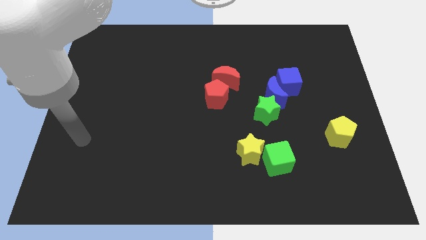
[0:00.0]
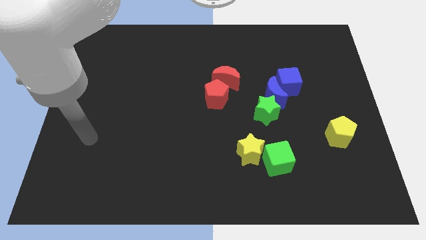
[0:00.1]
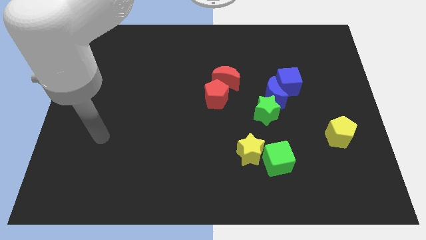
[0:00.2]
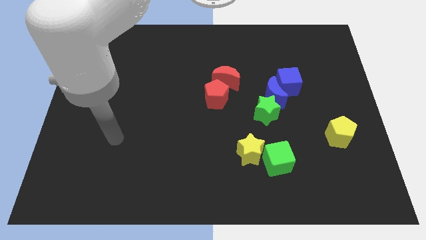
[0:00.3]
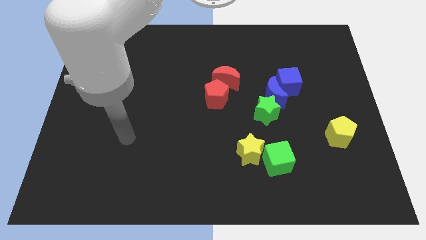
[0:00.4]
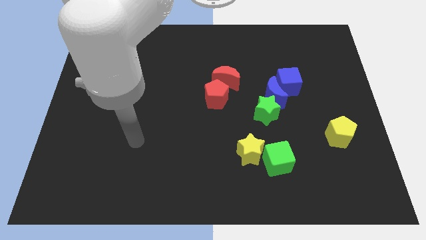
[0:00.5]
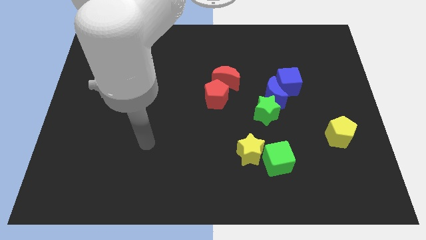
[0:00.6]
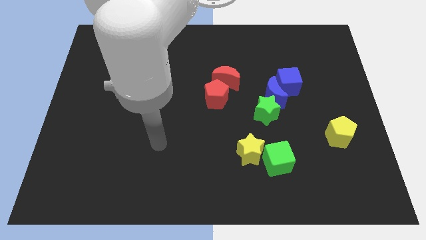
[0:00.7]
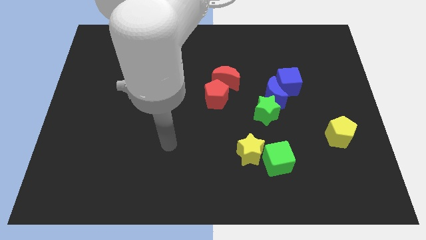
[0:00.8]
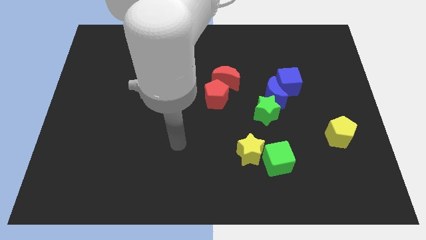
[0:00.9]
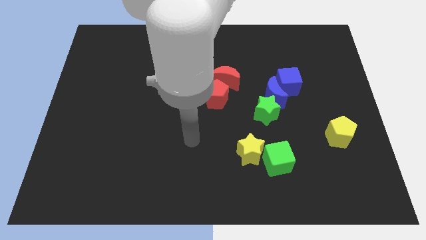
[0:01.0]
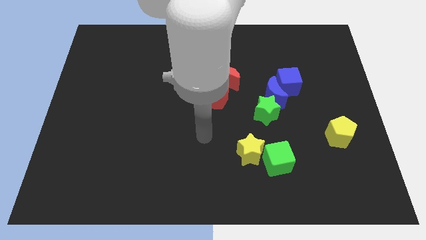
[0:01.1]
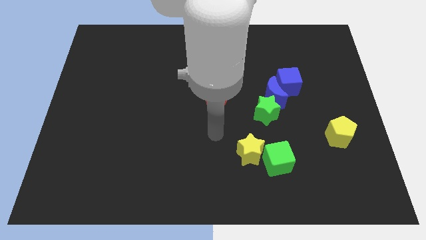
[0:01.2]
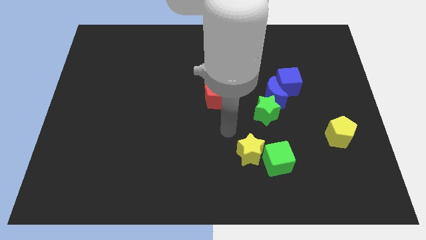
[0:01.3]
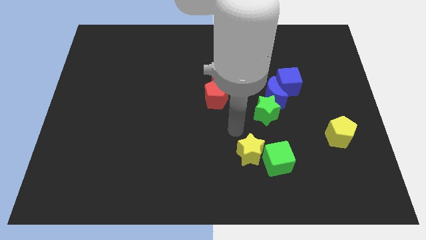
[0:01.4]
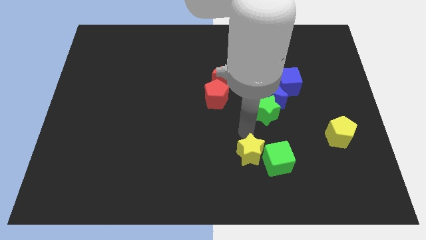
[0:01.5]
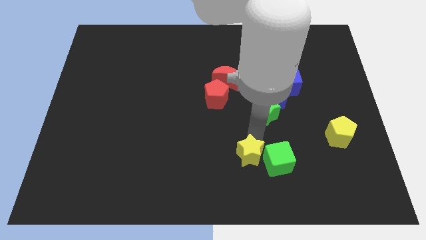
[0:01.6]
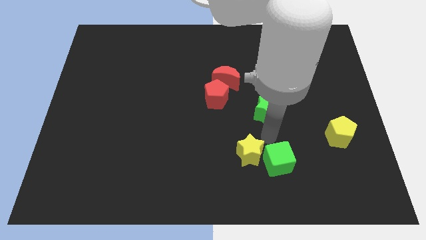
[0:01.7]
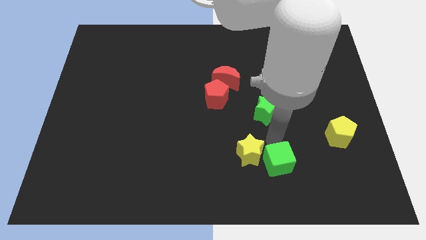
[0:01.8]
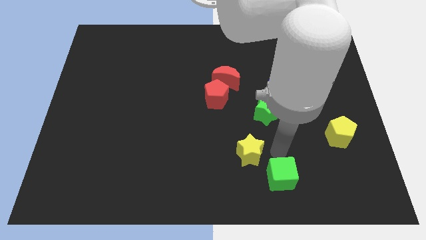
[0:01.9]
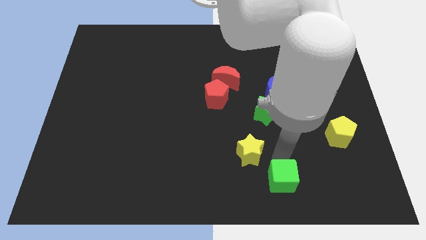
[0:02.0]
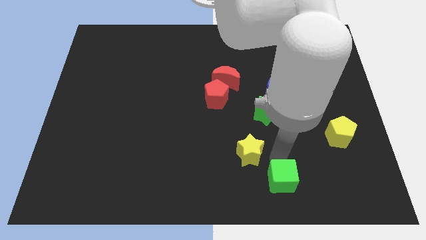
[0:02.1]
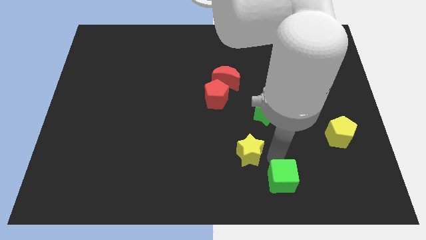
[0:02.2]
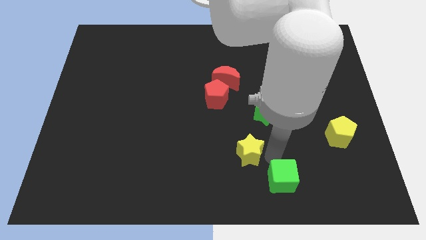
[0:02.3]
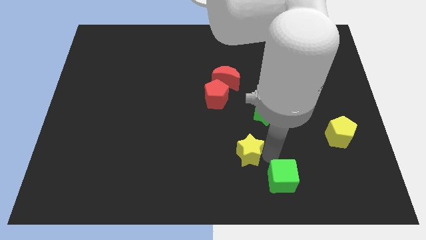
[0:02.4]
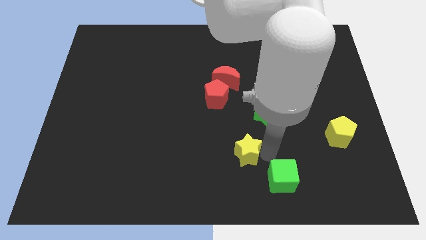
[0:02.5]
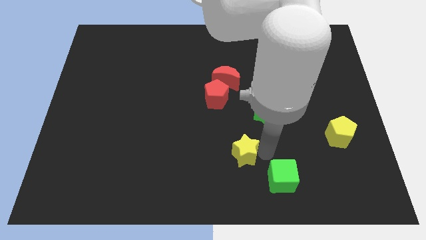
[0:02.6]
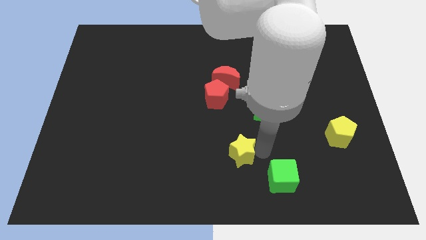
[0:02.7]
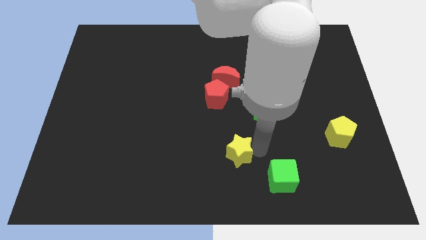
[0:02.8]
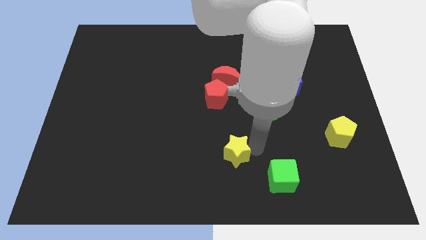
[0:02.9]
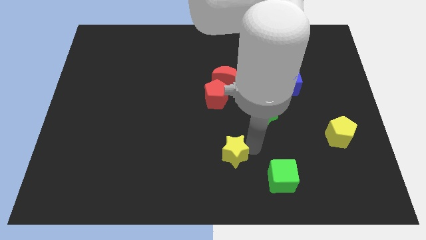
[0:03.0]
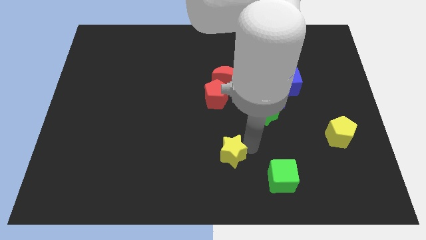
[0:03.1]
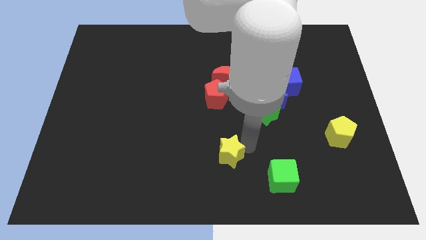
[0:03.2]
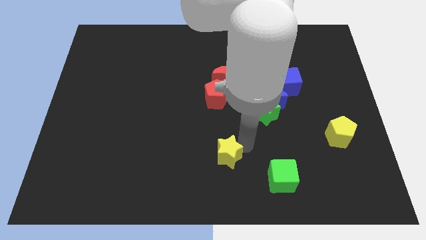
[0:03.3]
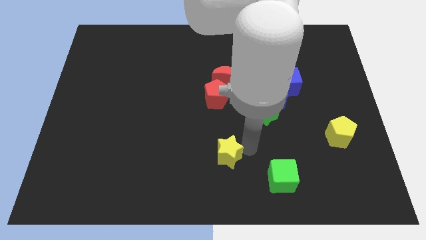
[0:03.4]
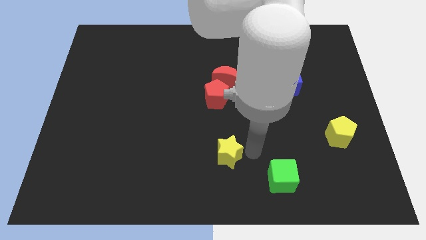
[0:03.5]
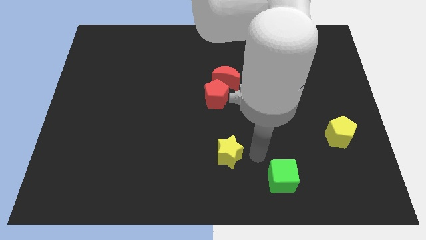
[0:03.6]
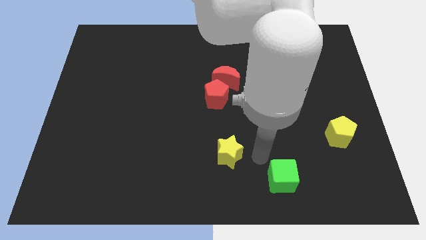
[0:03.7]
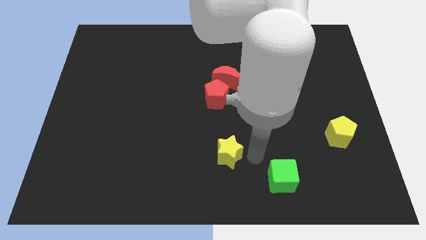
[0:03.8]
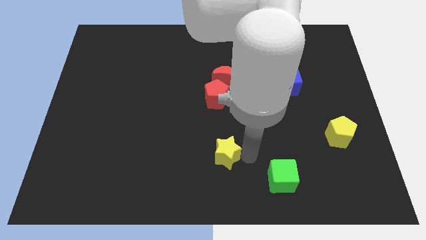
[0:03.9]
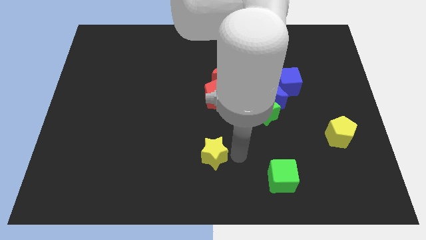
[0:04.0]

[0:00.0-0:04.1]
slightly push the yellow star to the left

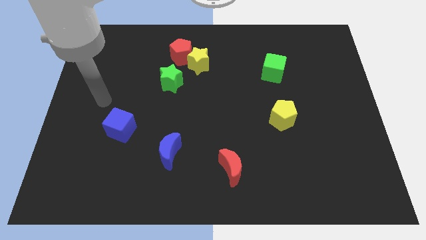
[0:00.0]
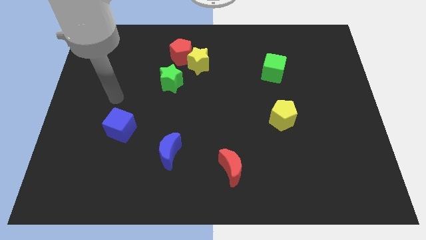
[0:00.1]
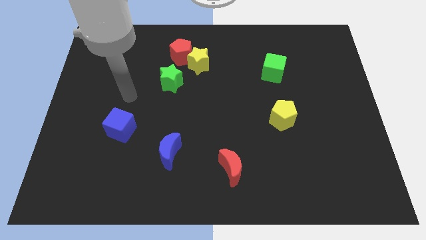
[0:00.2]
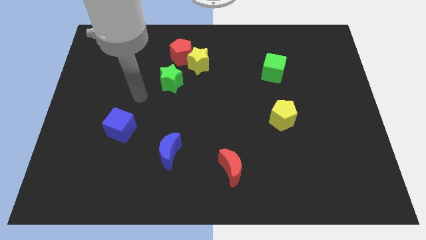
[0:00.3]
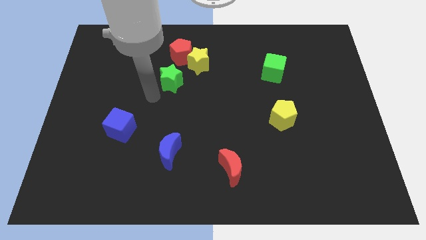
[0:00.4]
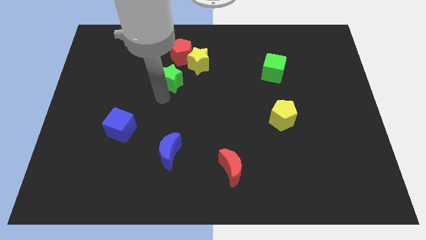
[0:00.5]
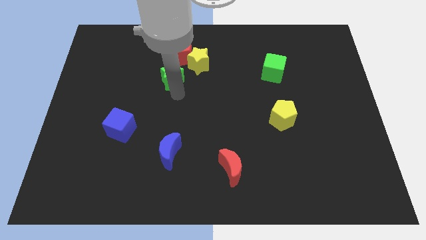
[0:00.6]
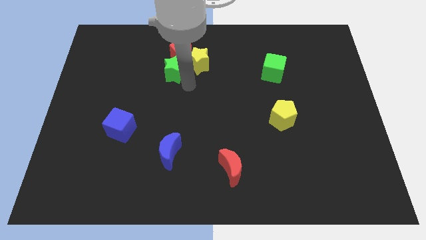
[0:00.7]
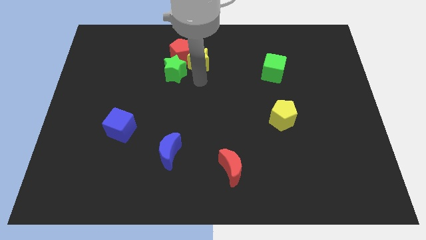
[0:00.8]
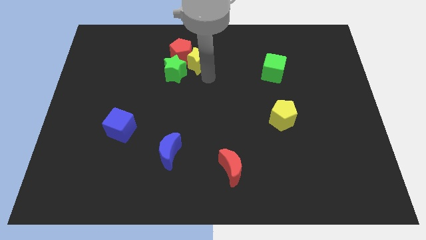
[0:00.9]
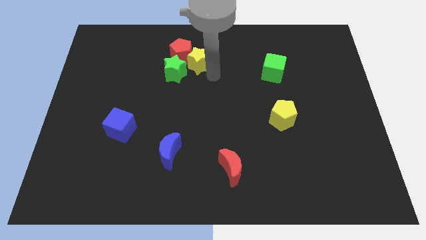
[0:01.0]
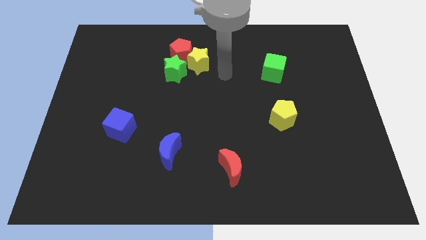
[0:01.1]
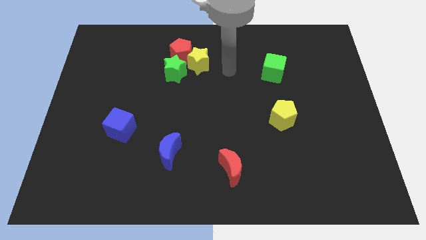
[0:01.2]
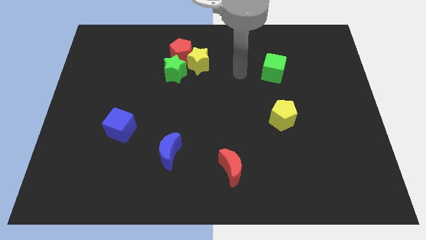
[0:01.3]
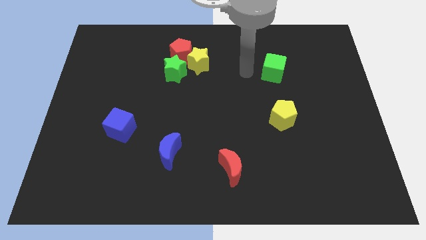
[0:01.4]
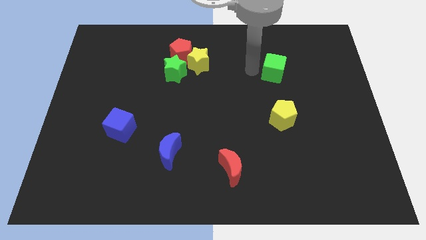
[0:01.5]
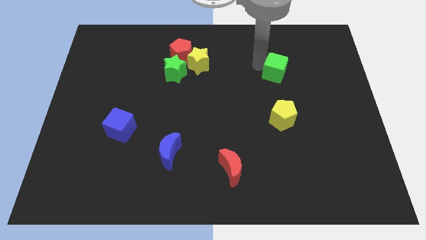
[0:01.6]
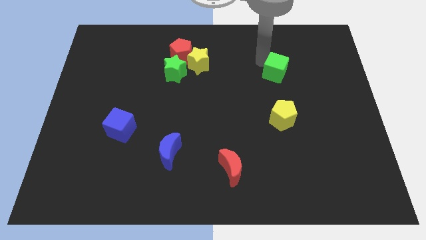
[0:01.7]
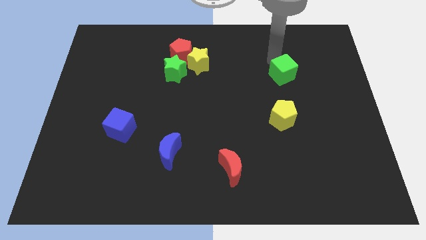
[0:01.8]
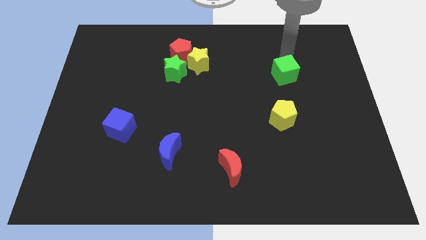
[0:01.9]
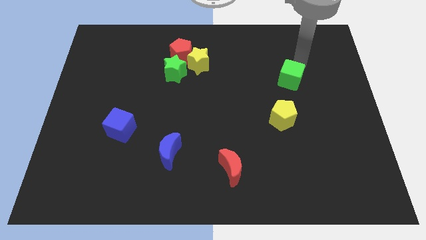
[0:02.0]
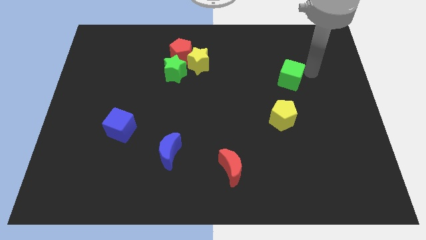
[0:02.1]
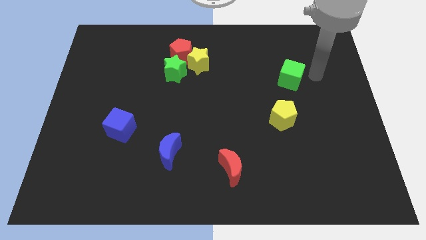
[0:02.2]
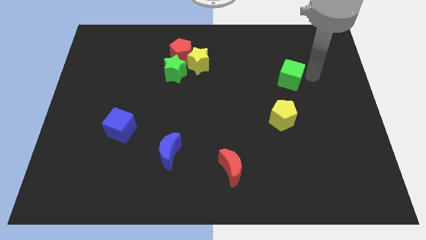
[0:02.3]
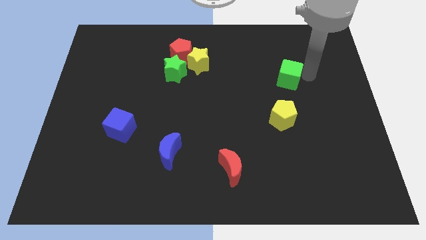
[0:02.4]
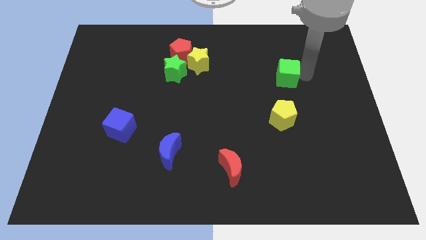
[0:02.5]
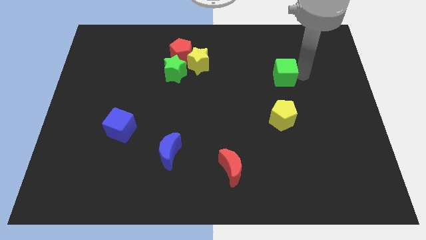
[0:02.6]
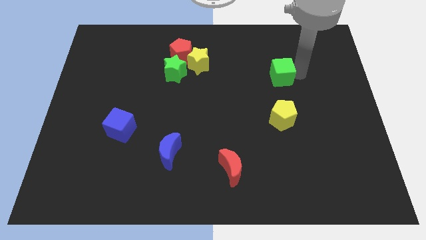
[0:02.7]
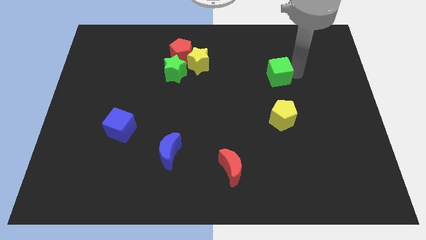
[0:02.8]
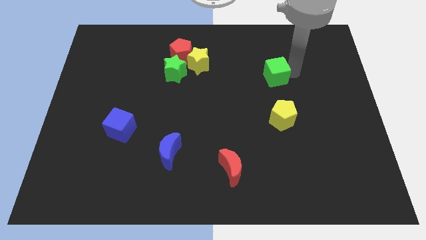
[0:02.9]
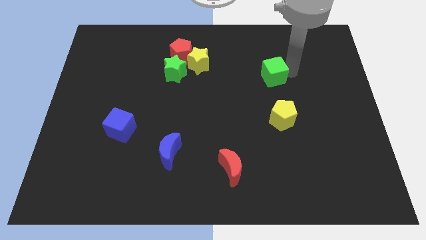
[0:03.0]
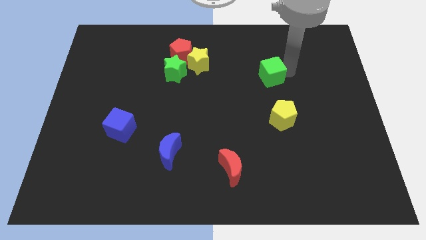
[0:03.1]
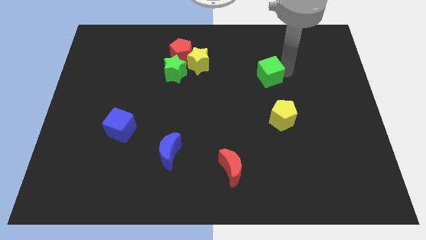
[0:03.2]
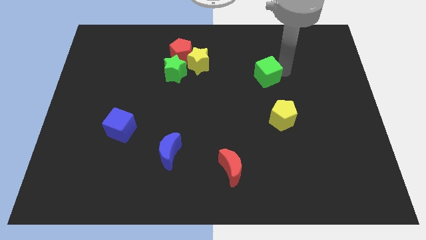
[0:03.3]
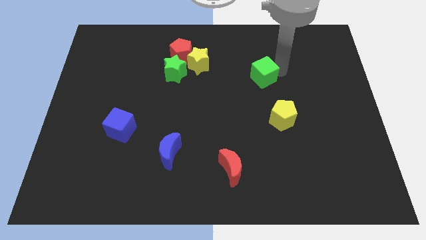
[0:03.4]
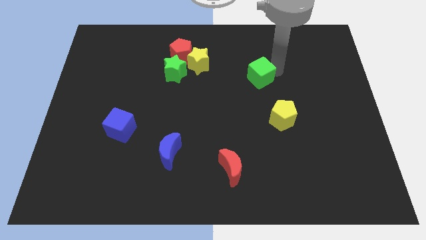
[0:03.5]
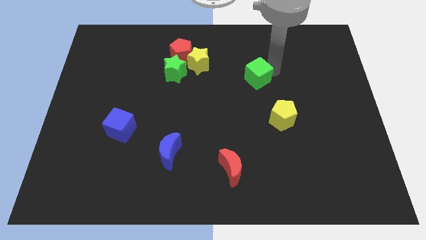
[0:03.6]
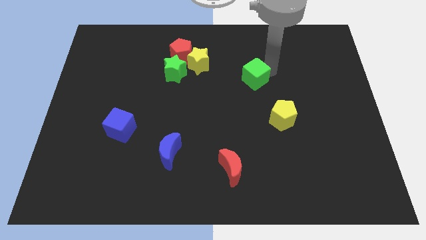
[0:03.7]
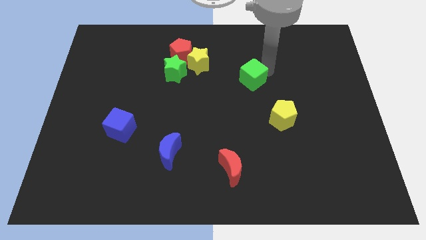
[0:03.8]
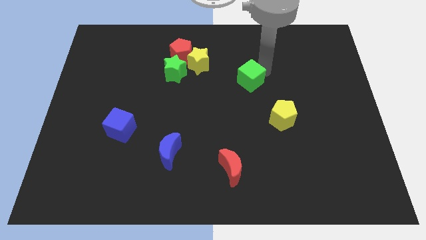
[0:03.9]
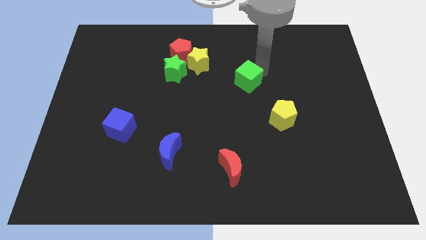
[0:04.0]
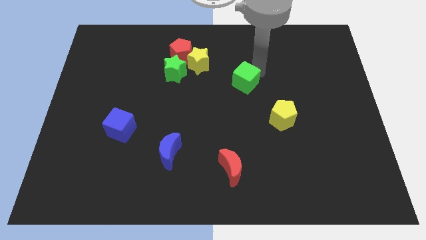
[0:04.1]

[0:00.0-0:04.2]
push the green cube a little down and left diagonally
